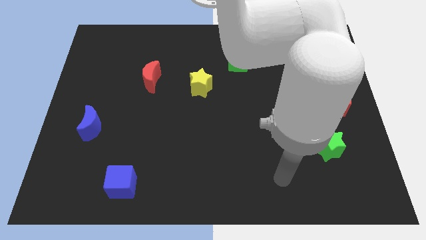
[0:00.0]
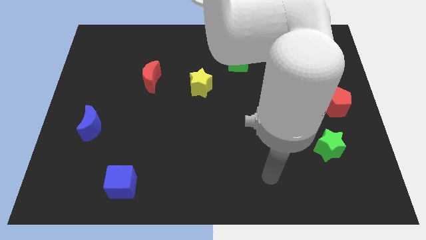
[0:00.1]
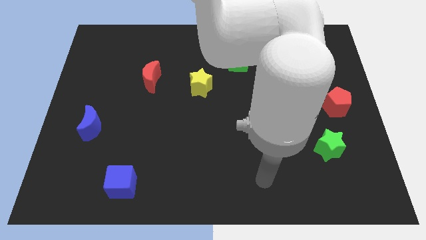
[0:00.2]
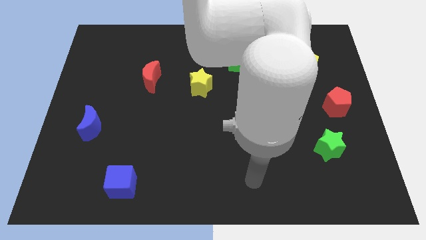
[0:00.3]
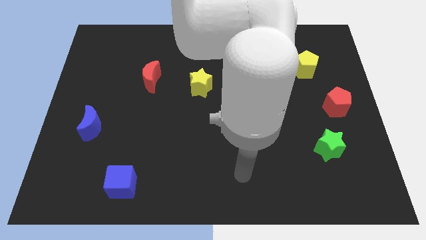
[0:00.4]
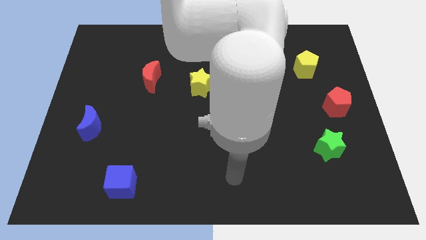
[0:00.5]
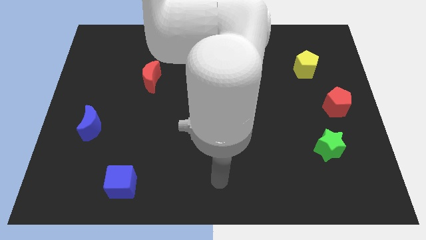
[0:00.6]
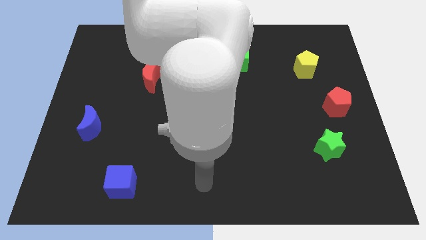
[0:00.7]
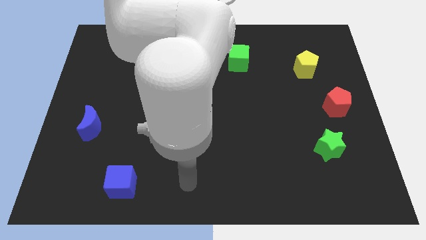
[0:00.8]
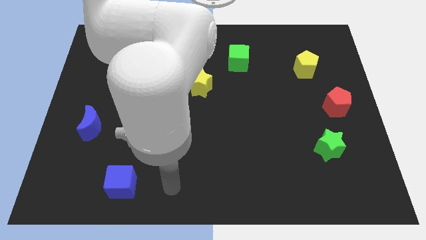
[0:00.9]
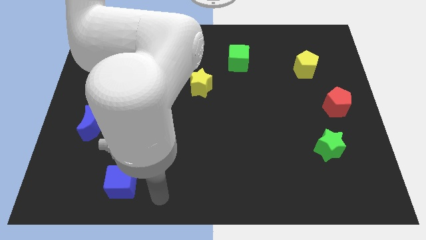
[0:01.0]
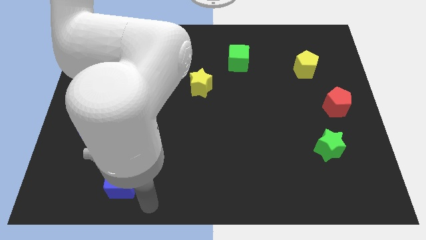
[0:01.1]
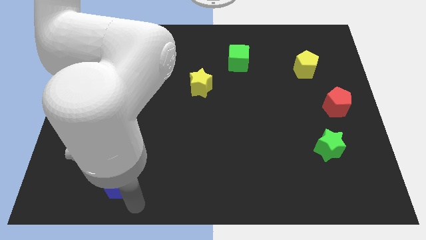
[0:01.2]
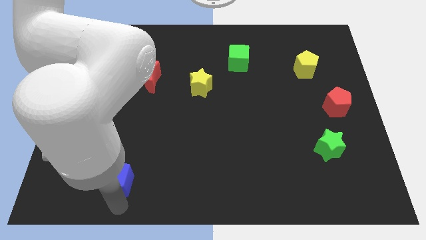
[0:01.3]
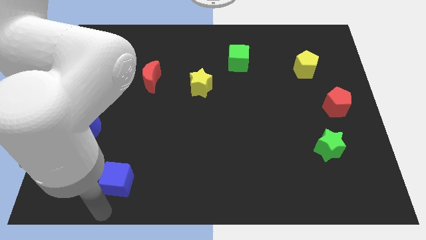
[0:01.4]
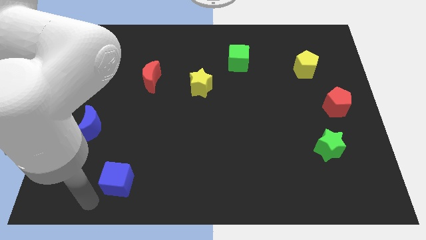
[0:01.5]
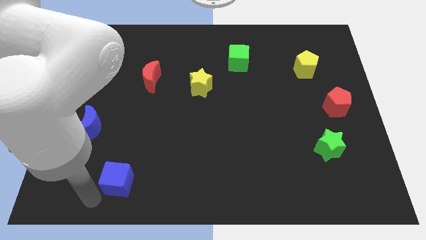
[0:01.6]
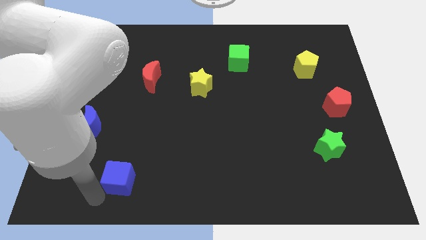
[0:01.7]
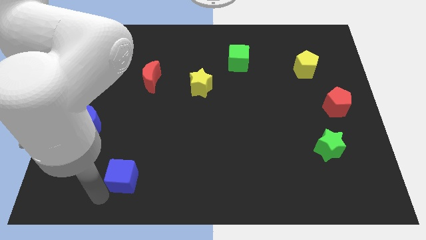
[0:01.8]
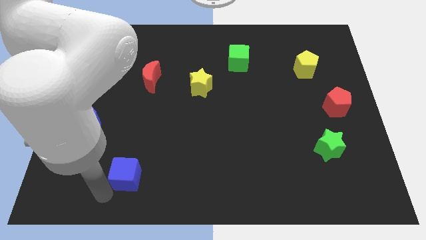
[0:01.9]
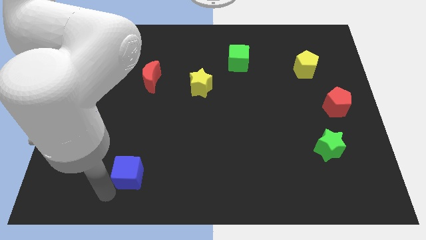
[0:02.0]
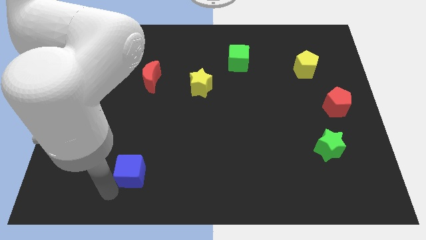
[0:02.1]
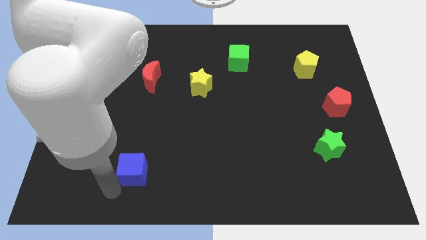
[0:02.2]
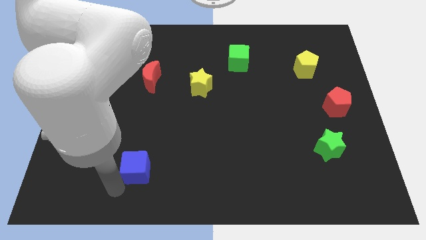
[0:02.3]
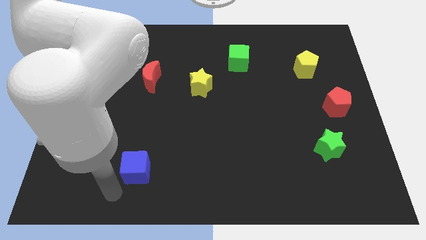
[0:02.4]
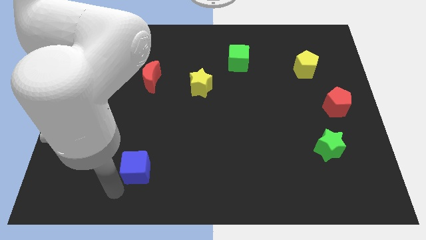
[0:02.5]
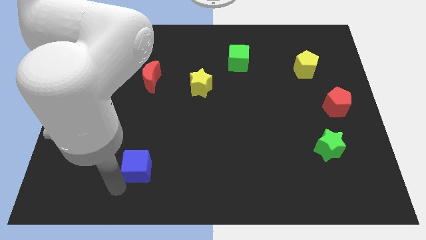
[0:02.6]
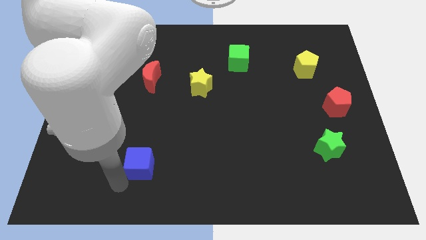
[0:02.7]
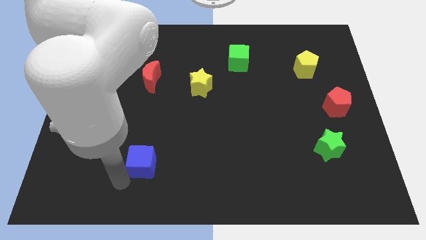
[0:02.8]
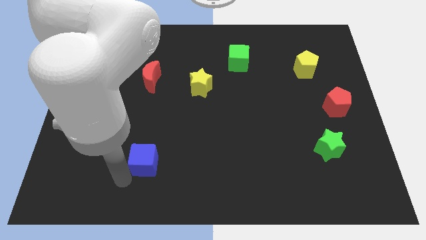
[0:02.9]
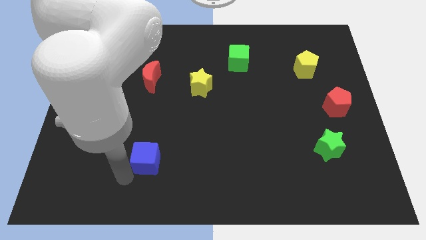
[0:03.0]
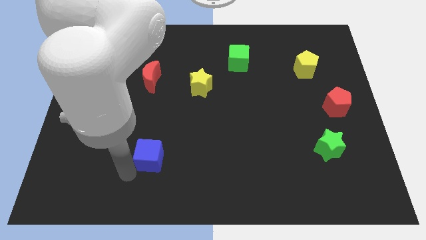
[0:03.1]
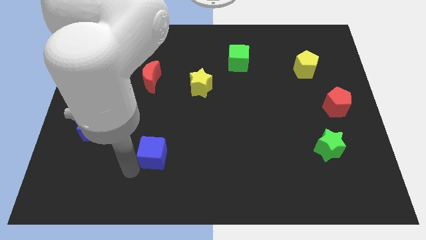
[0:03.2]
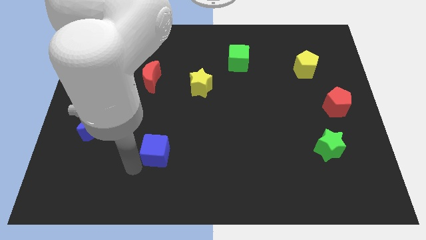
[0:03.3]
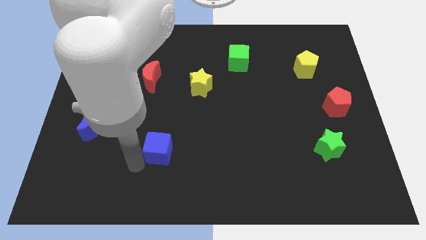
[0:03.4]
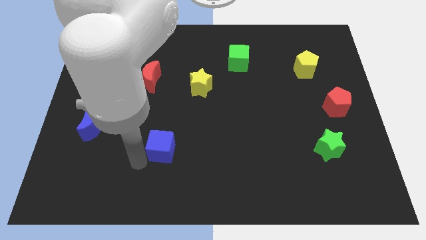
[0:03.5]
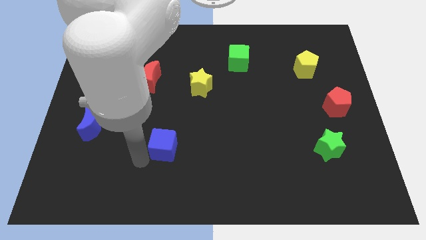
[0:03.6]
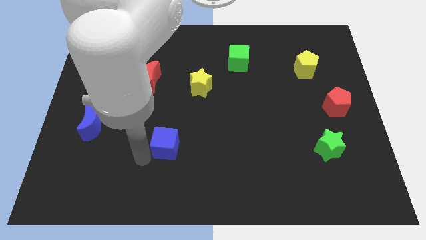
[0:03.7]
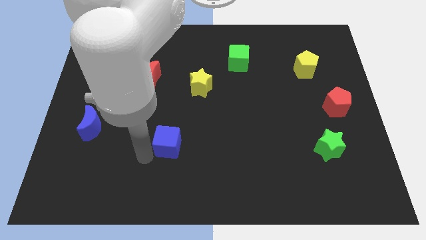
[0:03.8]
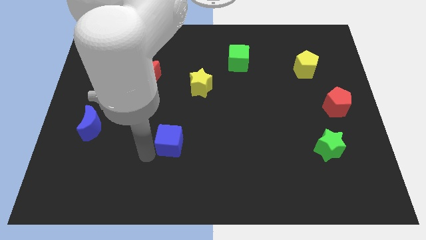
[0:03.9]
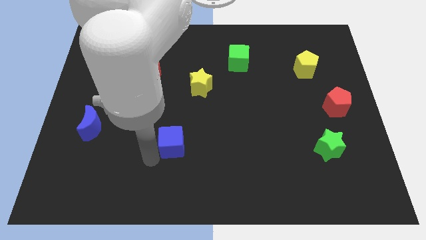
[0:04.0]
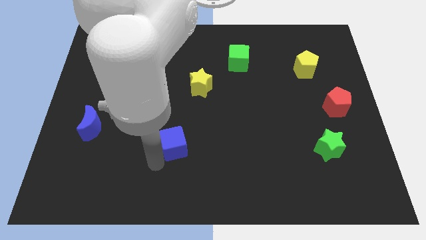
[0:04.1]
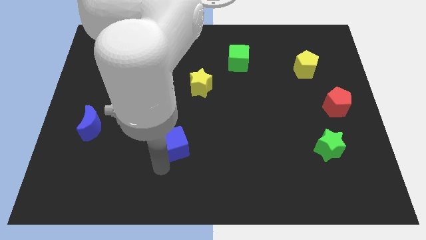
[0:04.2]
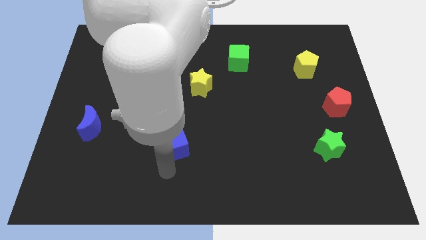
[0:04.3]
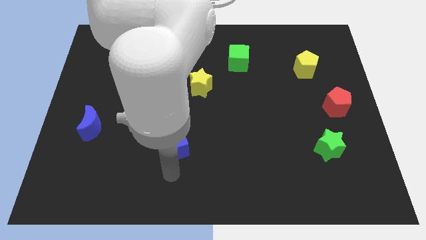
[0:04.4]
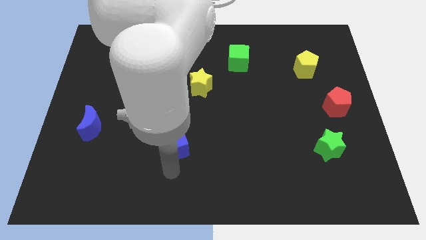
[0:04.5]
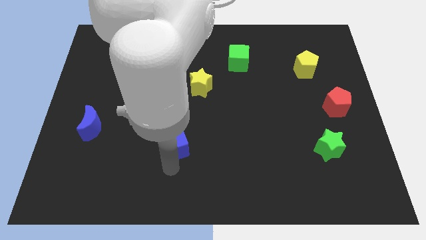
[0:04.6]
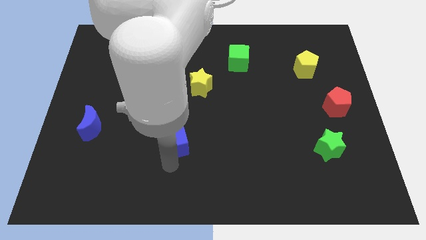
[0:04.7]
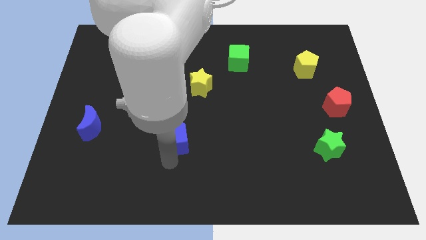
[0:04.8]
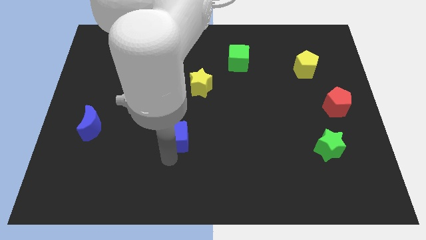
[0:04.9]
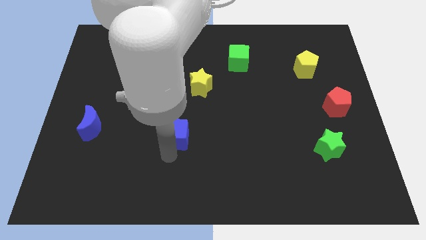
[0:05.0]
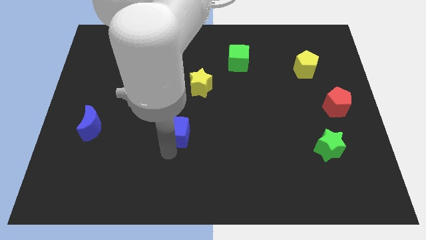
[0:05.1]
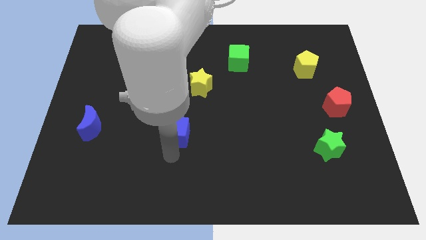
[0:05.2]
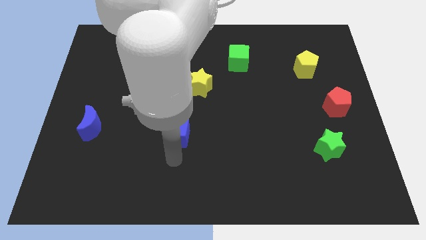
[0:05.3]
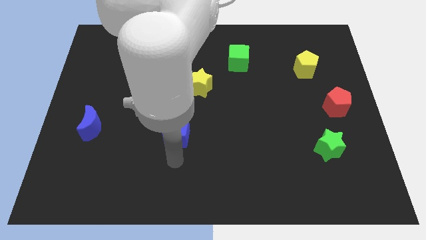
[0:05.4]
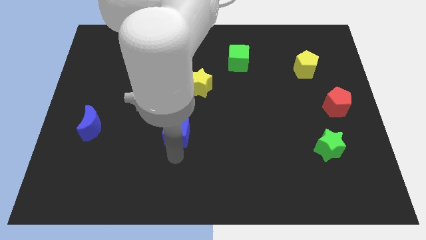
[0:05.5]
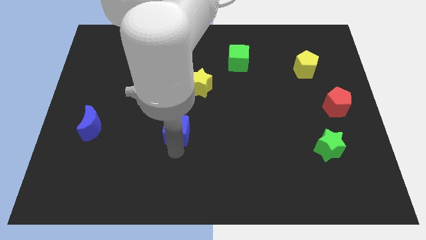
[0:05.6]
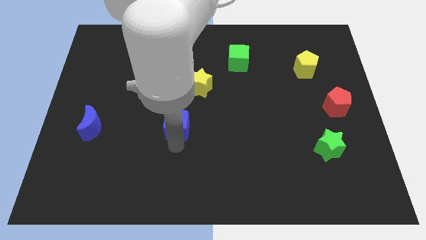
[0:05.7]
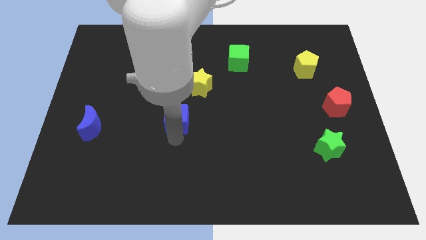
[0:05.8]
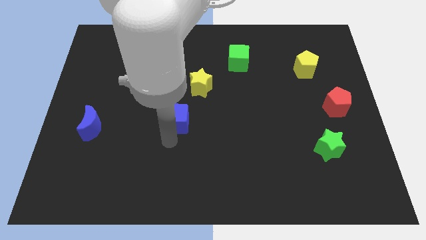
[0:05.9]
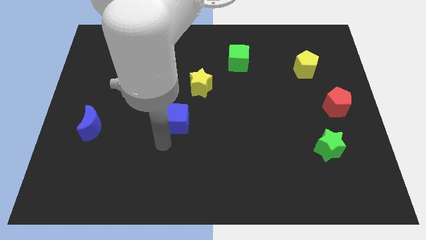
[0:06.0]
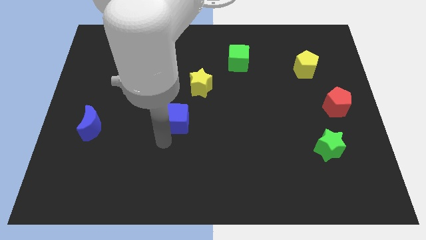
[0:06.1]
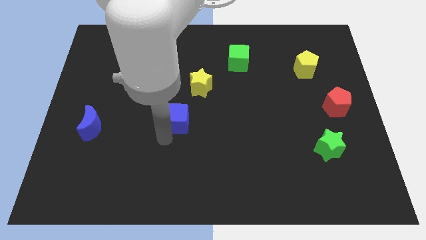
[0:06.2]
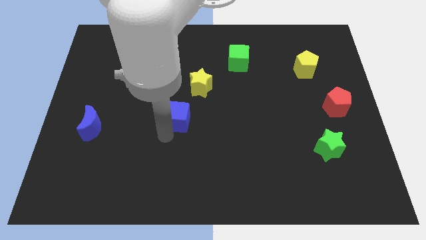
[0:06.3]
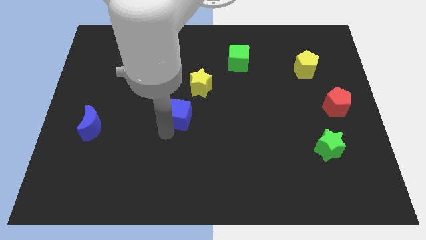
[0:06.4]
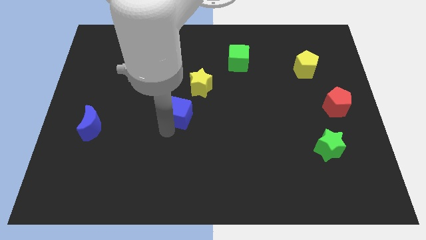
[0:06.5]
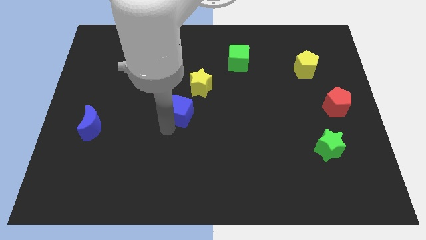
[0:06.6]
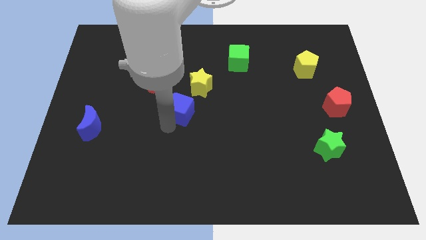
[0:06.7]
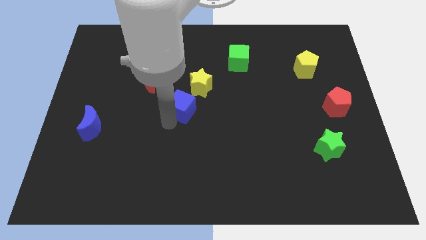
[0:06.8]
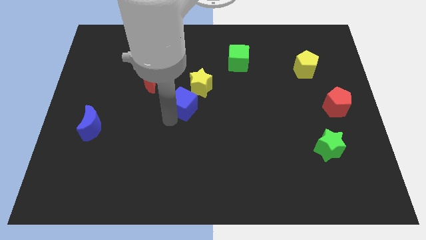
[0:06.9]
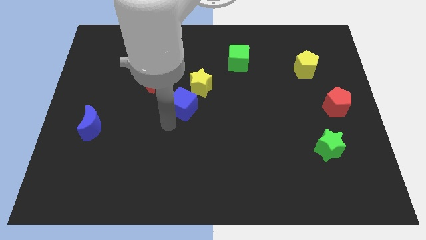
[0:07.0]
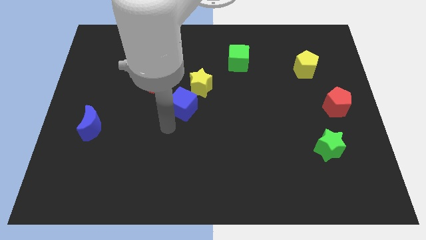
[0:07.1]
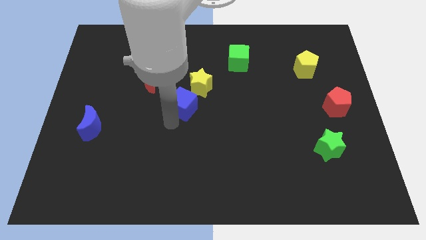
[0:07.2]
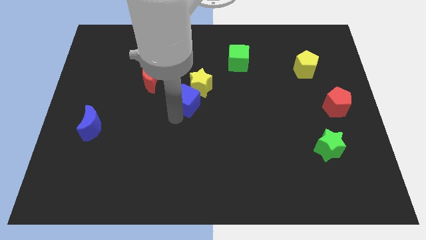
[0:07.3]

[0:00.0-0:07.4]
slide the blue cube close to the yellow star

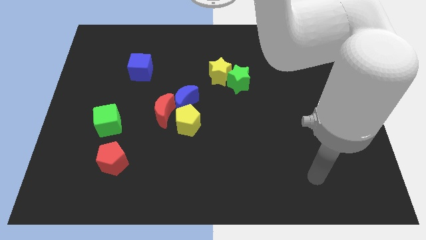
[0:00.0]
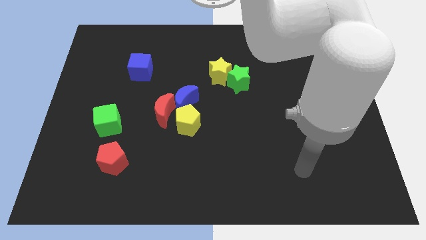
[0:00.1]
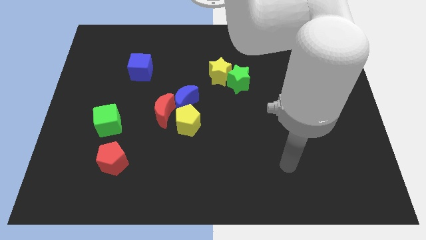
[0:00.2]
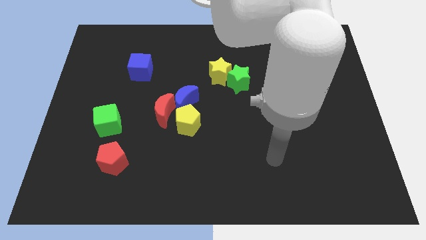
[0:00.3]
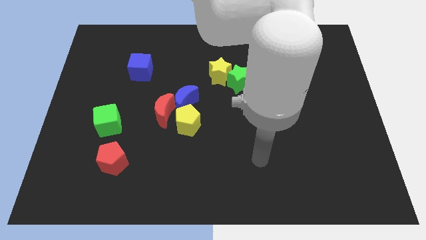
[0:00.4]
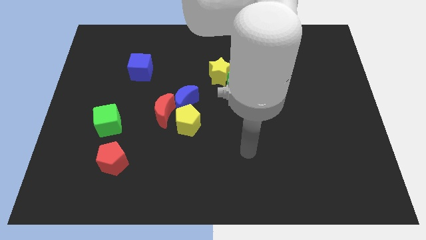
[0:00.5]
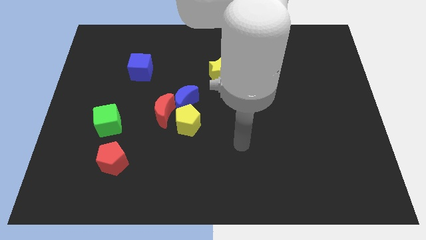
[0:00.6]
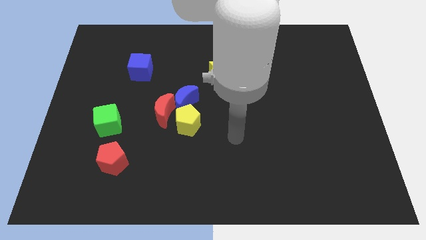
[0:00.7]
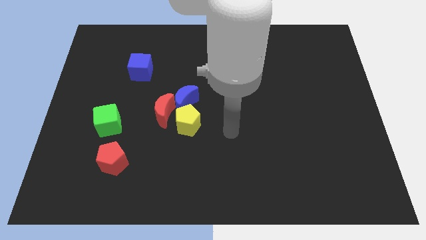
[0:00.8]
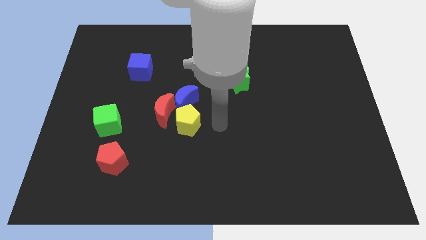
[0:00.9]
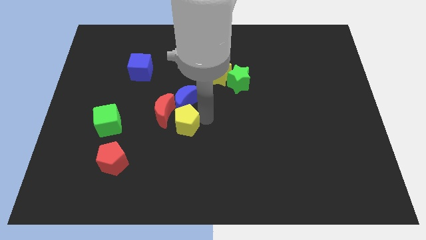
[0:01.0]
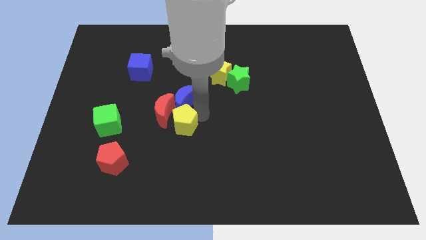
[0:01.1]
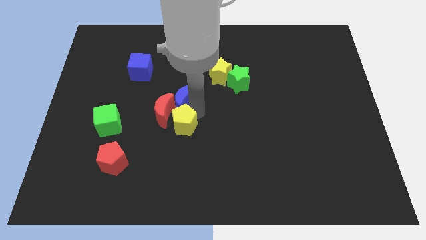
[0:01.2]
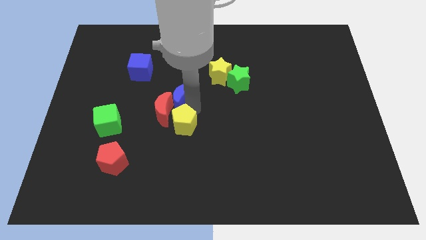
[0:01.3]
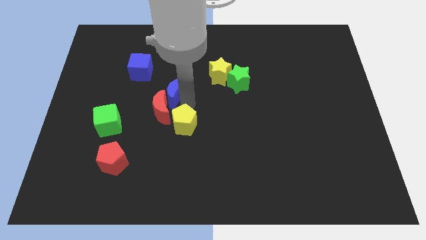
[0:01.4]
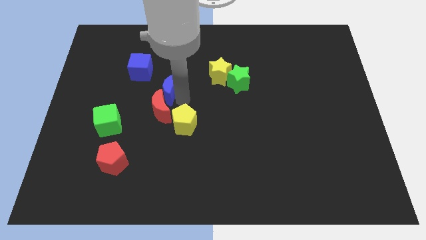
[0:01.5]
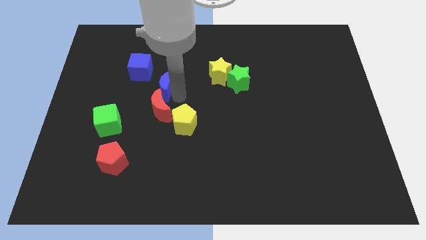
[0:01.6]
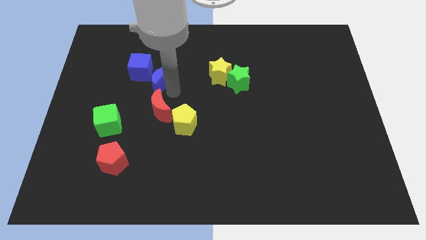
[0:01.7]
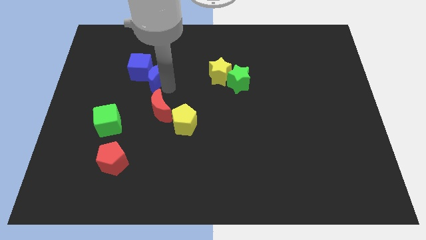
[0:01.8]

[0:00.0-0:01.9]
put the blue moon close to the blue cube
